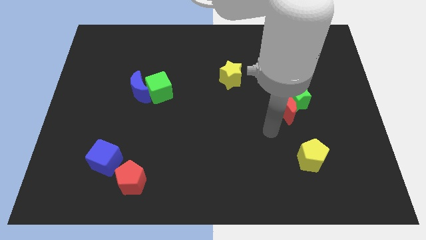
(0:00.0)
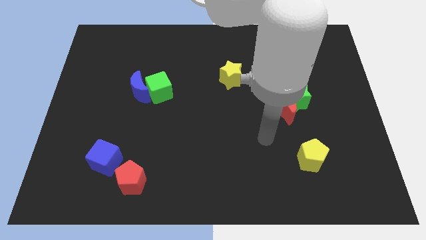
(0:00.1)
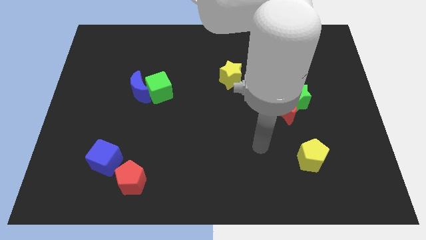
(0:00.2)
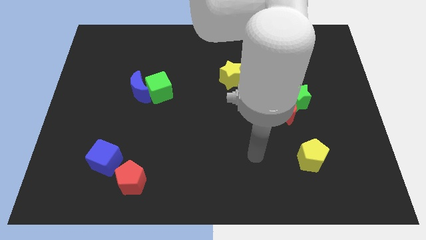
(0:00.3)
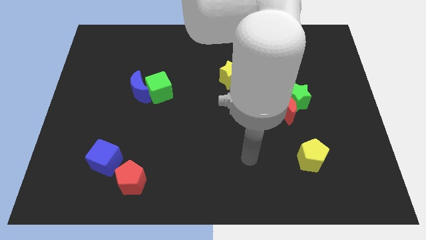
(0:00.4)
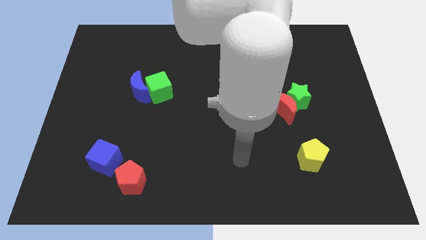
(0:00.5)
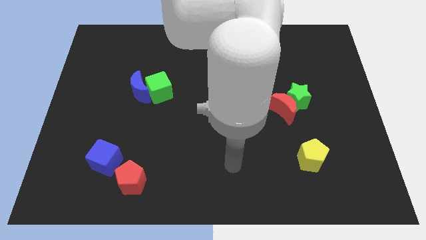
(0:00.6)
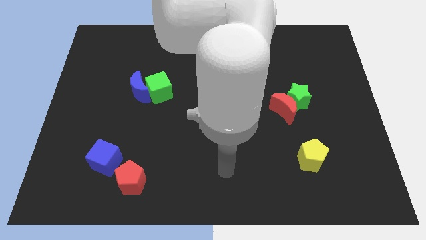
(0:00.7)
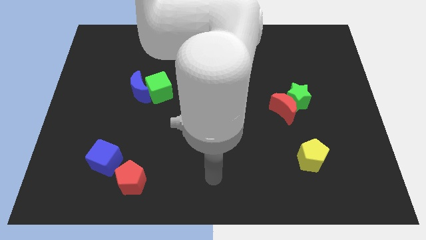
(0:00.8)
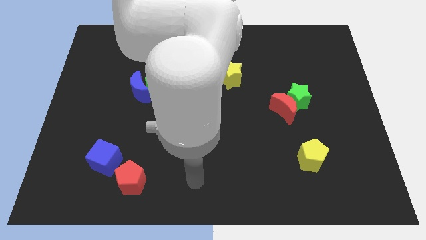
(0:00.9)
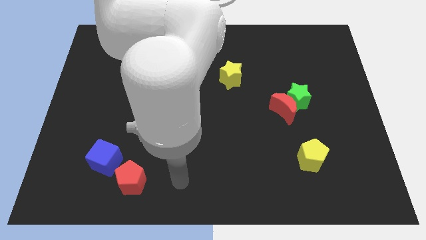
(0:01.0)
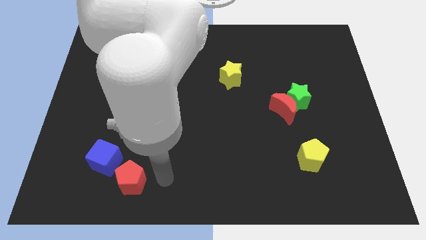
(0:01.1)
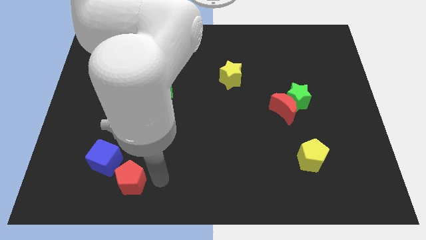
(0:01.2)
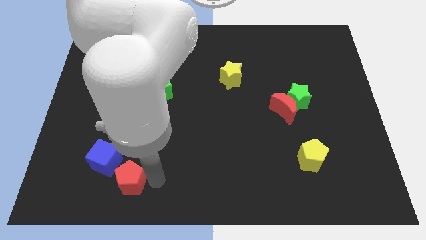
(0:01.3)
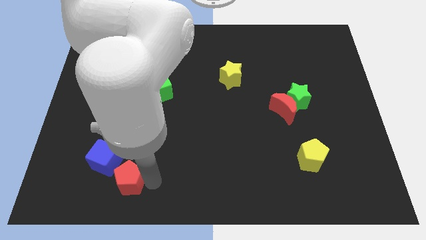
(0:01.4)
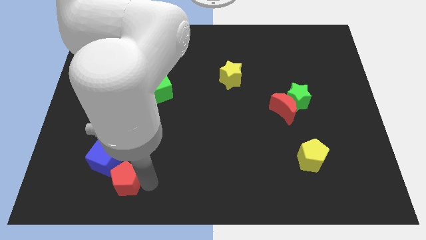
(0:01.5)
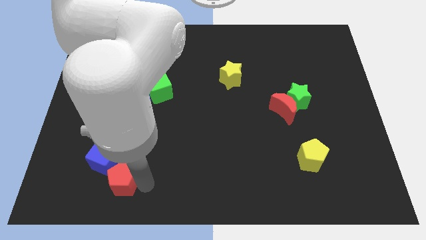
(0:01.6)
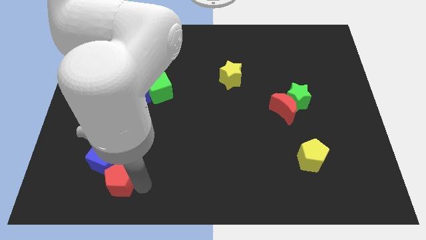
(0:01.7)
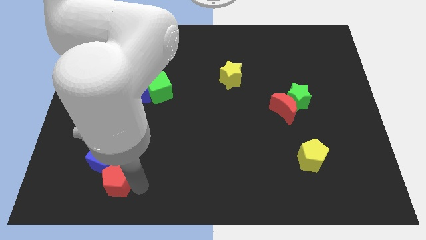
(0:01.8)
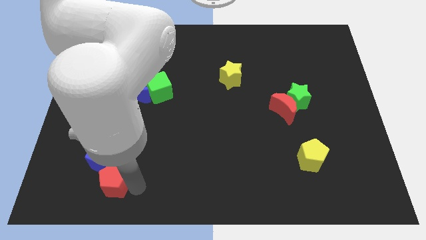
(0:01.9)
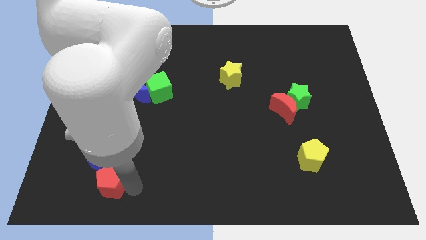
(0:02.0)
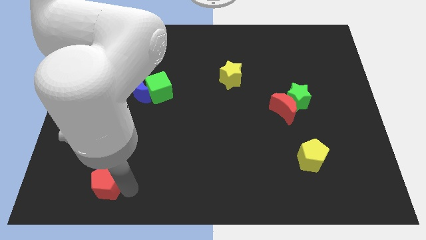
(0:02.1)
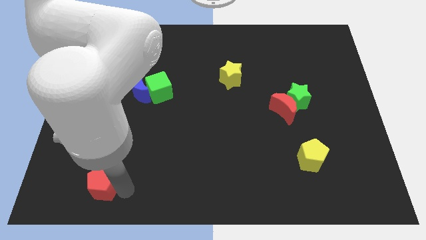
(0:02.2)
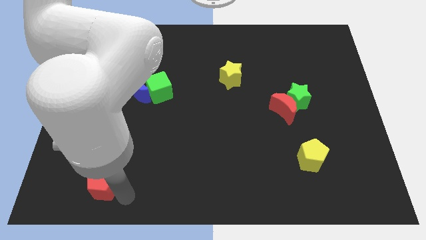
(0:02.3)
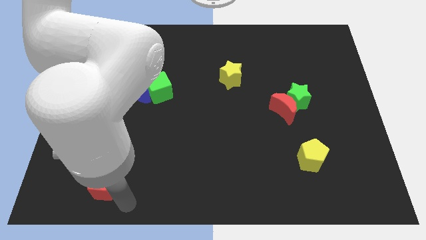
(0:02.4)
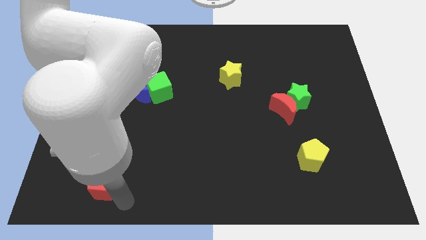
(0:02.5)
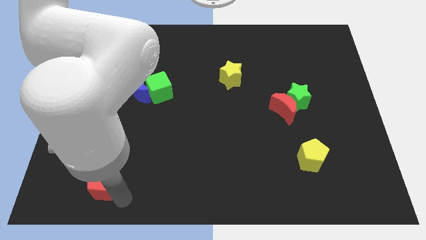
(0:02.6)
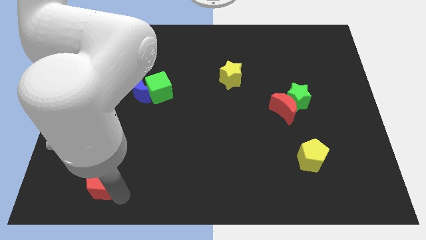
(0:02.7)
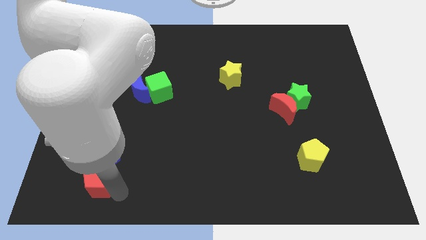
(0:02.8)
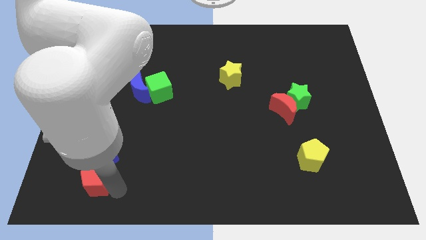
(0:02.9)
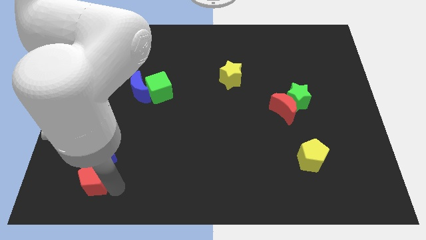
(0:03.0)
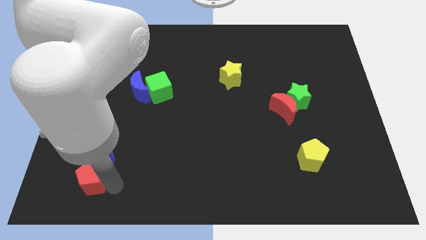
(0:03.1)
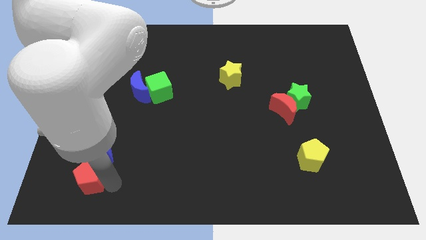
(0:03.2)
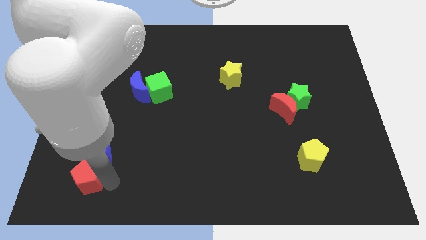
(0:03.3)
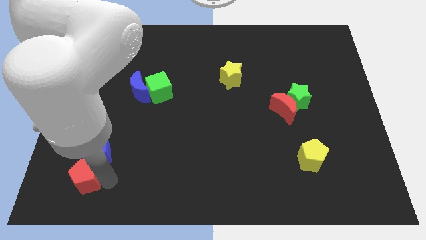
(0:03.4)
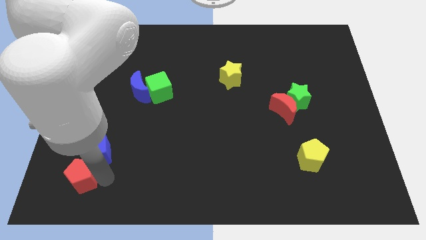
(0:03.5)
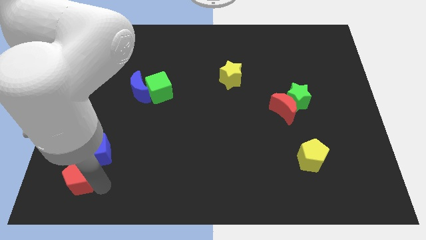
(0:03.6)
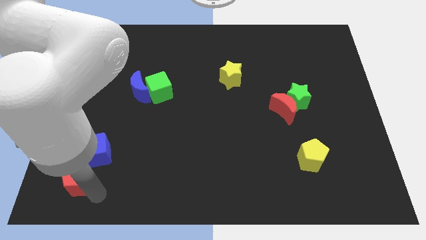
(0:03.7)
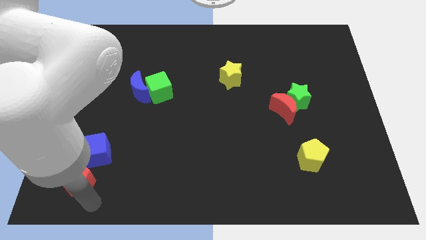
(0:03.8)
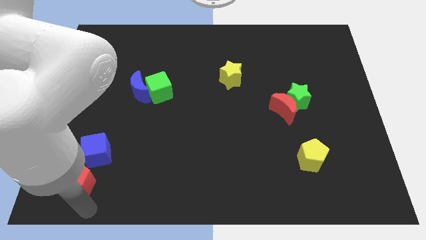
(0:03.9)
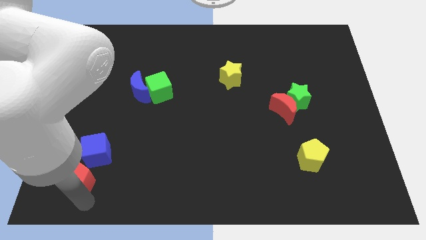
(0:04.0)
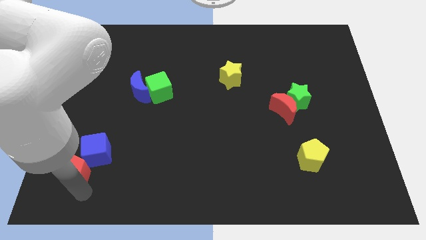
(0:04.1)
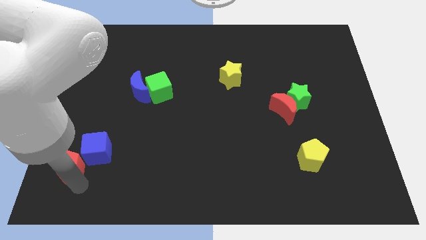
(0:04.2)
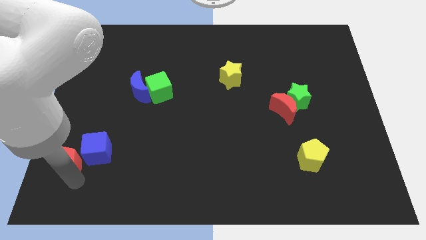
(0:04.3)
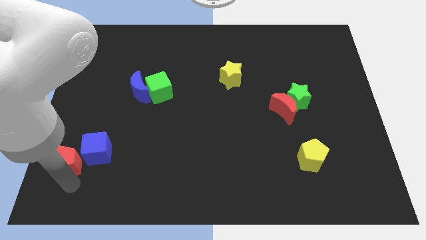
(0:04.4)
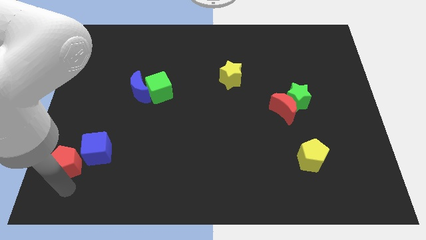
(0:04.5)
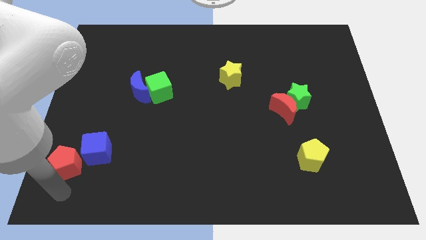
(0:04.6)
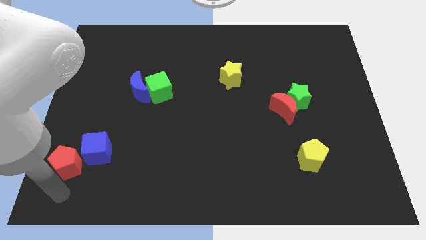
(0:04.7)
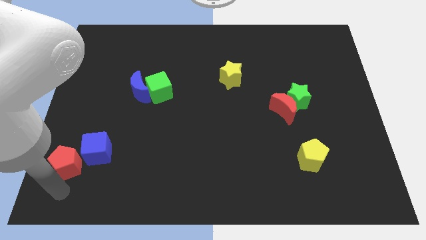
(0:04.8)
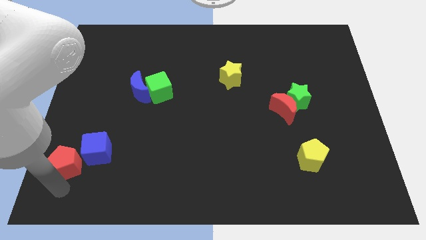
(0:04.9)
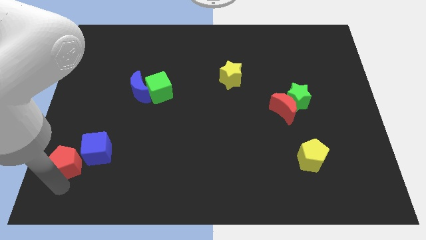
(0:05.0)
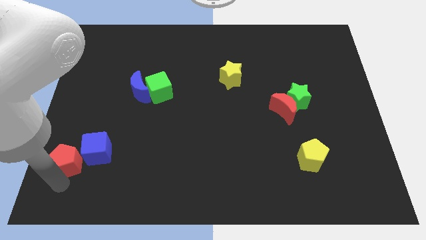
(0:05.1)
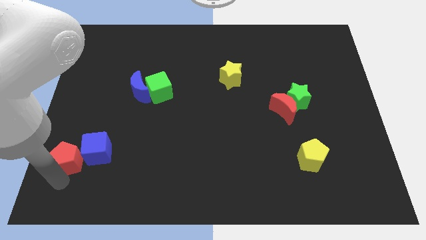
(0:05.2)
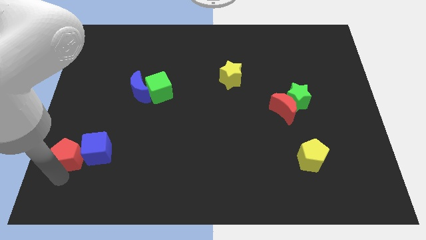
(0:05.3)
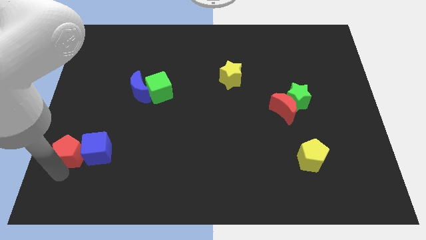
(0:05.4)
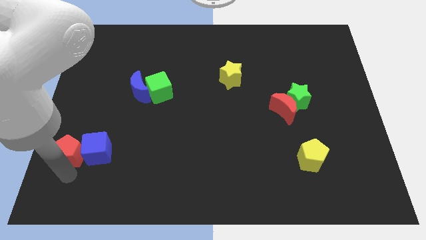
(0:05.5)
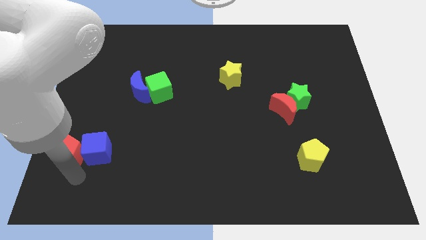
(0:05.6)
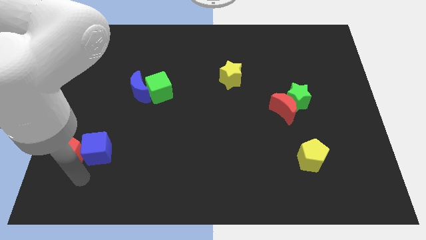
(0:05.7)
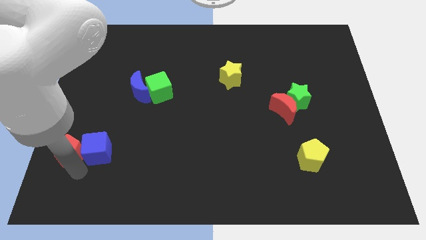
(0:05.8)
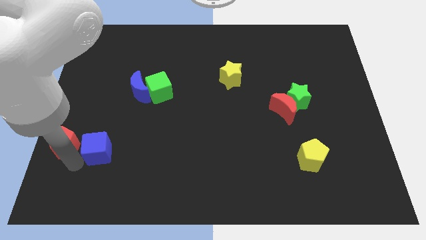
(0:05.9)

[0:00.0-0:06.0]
move the red pentagon to the center left

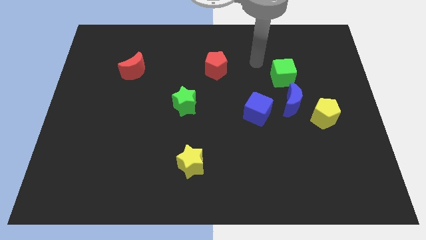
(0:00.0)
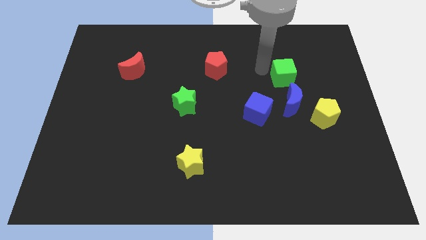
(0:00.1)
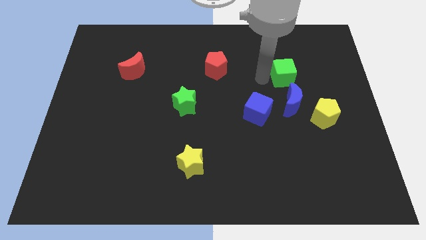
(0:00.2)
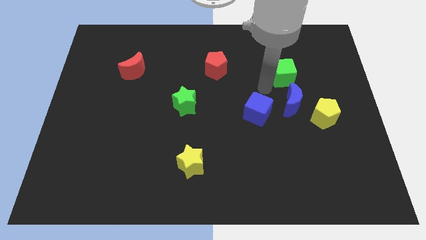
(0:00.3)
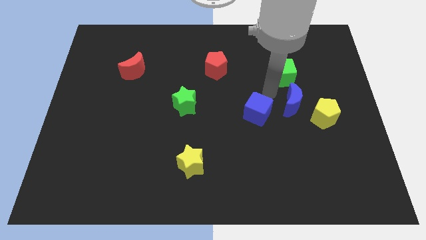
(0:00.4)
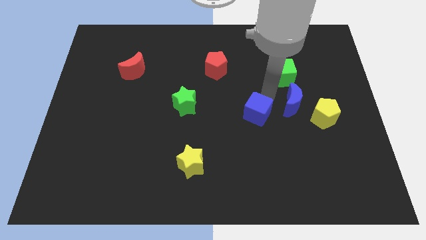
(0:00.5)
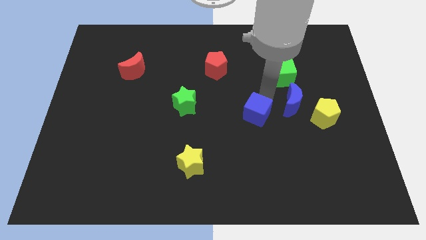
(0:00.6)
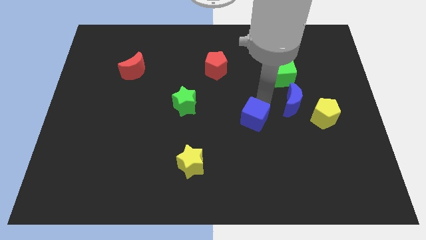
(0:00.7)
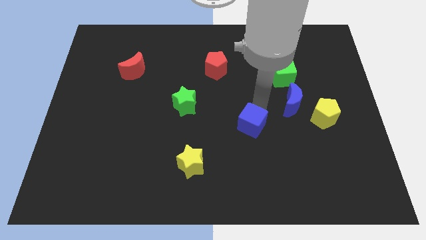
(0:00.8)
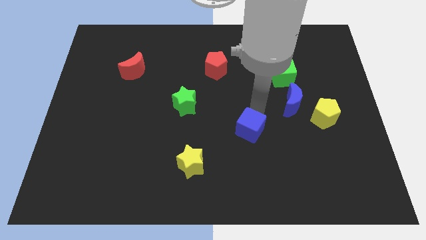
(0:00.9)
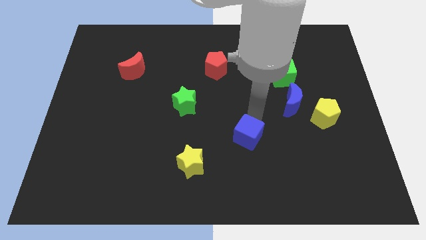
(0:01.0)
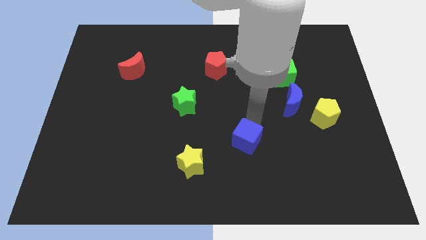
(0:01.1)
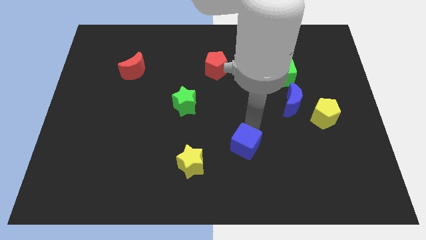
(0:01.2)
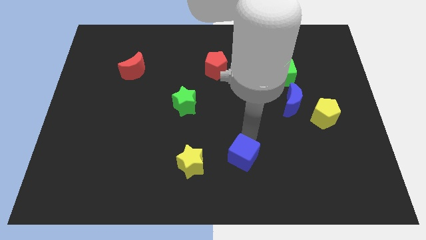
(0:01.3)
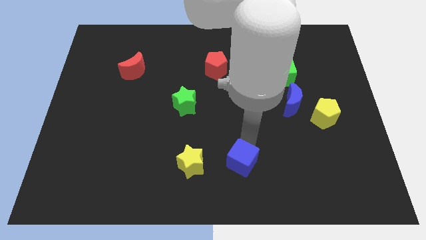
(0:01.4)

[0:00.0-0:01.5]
push the blue cube to the bottom side
